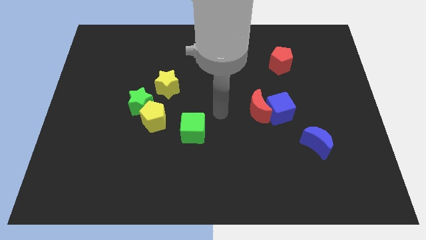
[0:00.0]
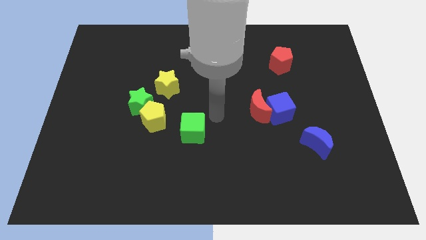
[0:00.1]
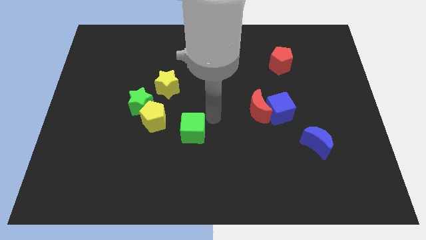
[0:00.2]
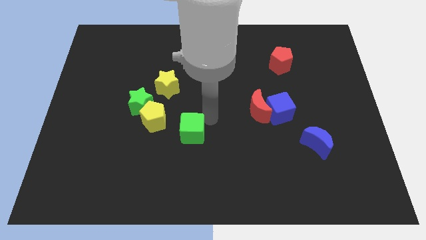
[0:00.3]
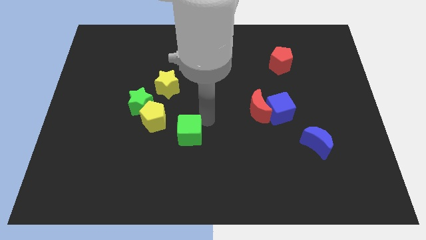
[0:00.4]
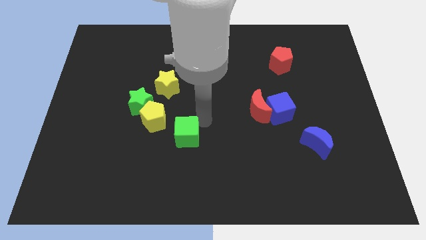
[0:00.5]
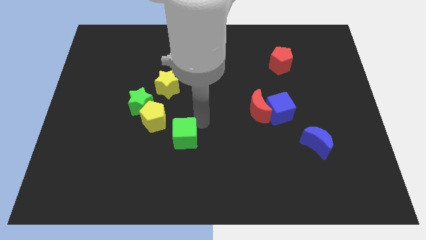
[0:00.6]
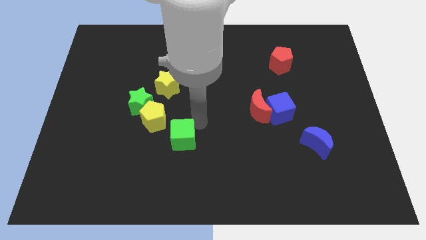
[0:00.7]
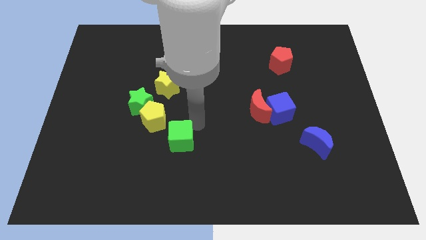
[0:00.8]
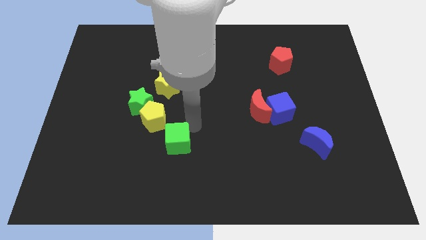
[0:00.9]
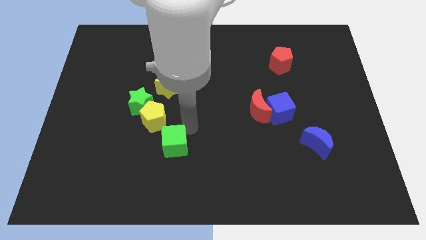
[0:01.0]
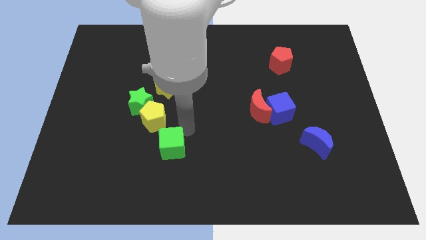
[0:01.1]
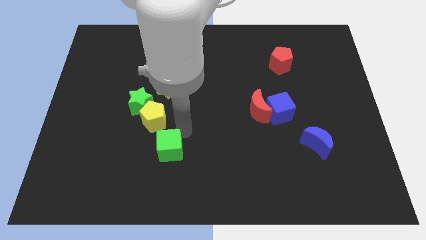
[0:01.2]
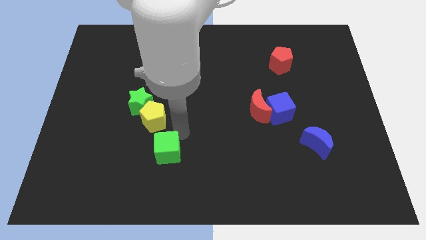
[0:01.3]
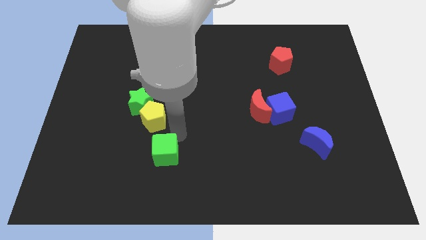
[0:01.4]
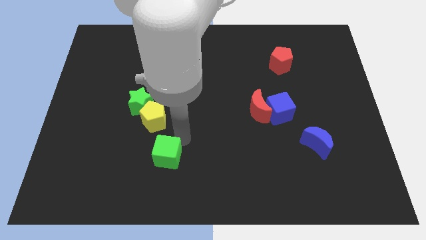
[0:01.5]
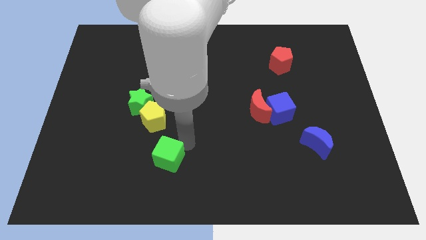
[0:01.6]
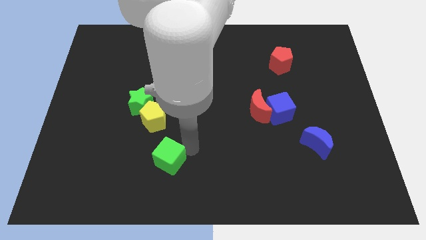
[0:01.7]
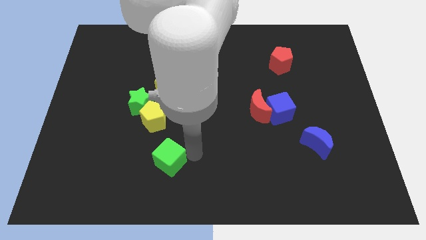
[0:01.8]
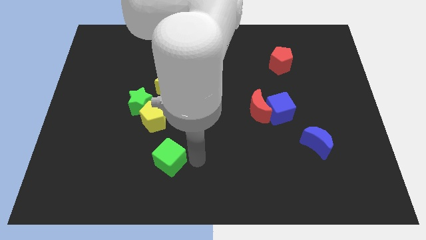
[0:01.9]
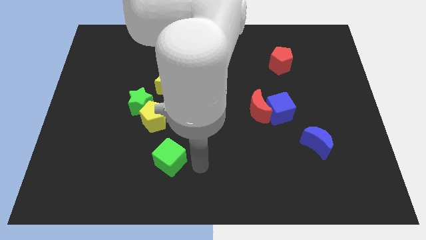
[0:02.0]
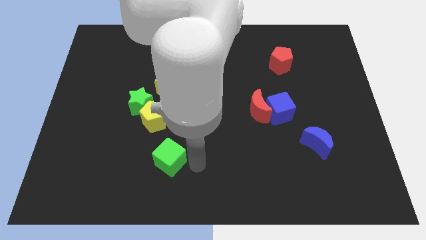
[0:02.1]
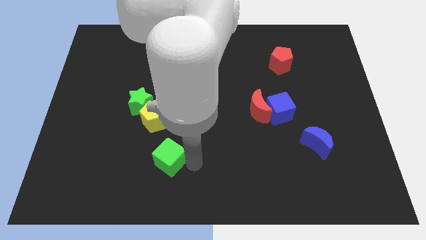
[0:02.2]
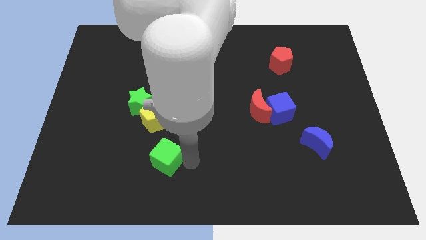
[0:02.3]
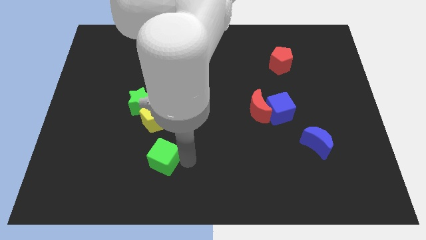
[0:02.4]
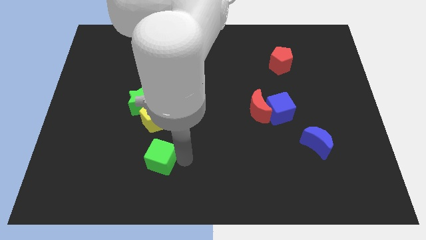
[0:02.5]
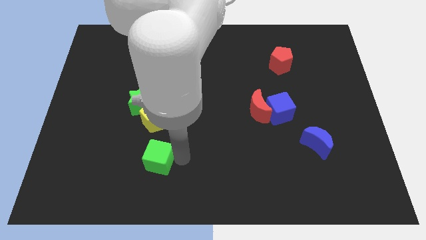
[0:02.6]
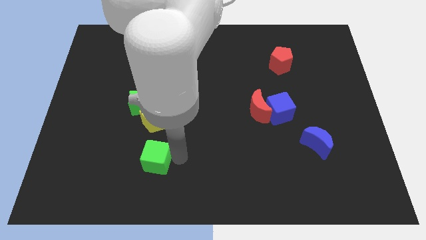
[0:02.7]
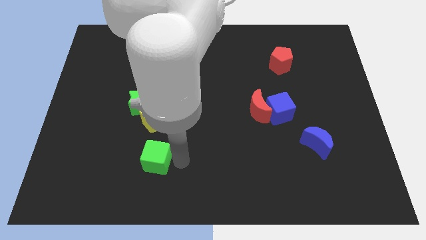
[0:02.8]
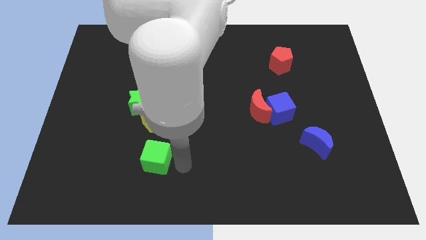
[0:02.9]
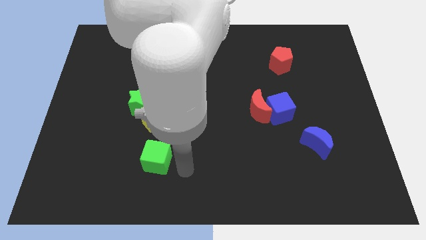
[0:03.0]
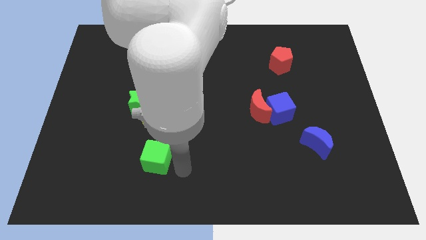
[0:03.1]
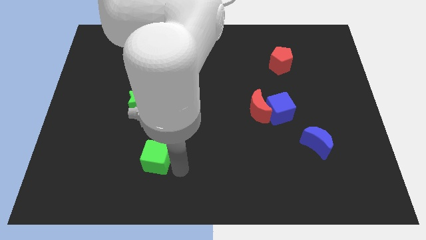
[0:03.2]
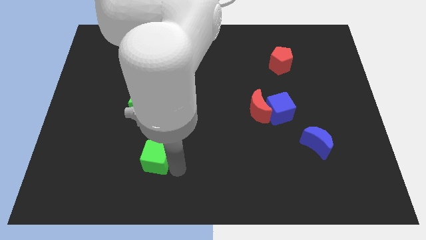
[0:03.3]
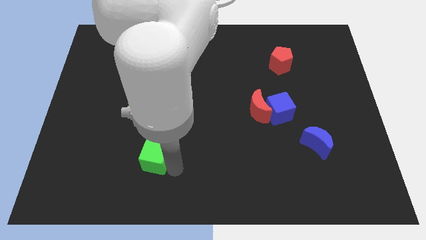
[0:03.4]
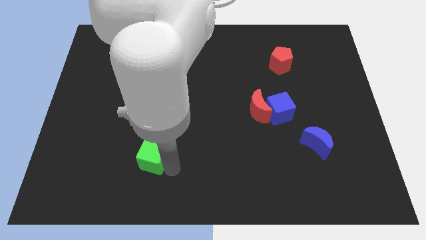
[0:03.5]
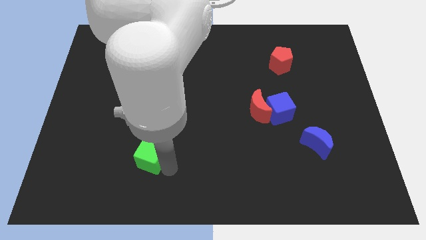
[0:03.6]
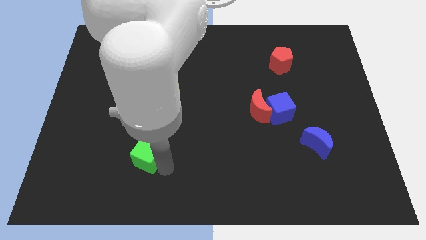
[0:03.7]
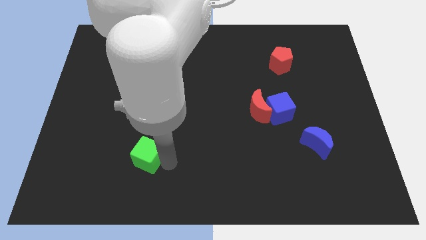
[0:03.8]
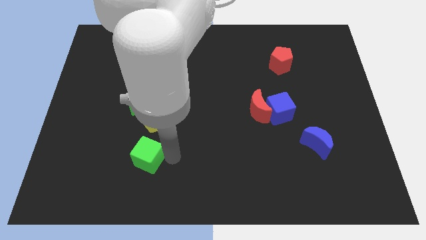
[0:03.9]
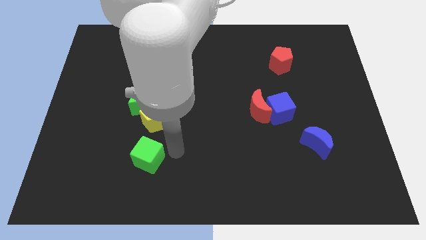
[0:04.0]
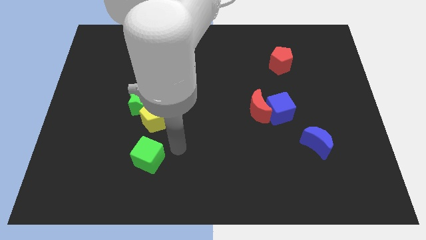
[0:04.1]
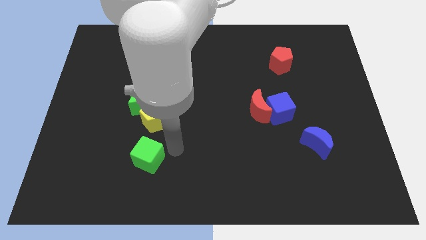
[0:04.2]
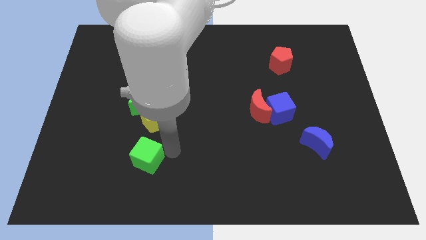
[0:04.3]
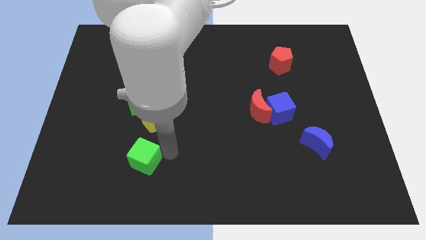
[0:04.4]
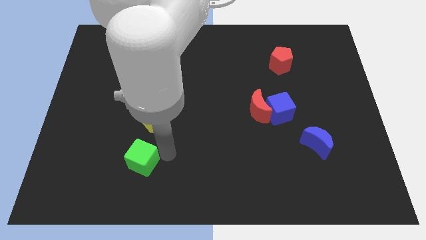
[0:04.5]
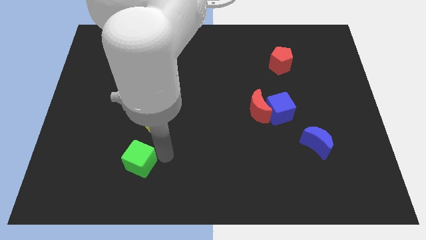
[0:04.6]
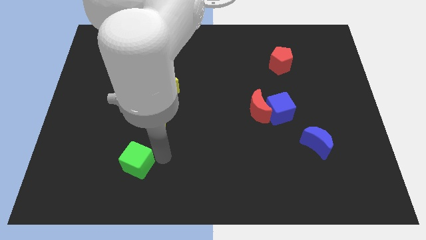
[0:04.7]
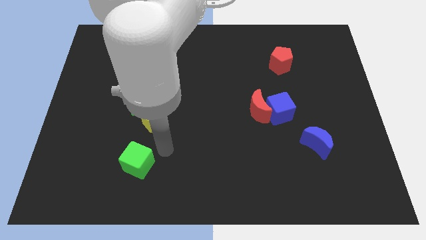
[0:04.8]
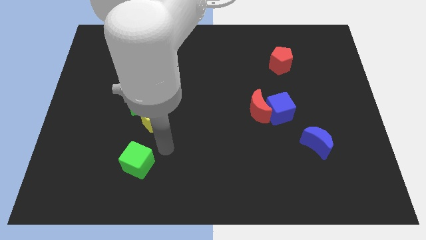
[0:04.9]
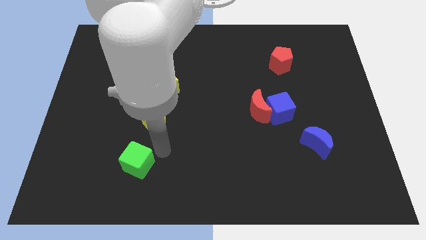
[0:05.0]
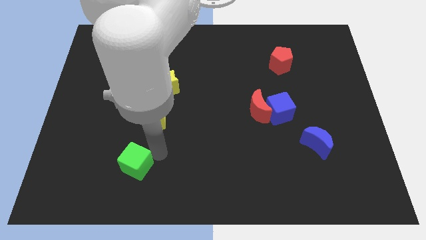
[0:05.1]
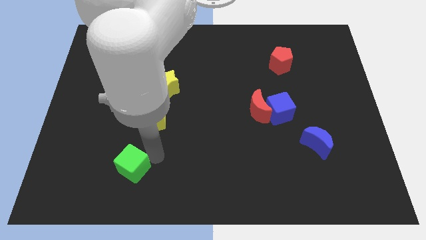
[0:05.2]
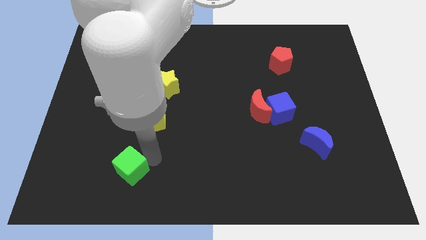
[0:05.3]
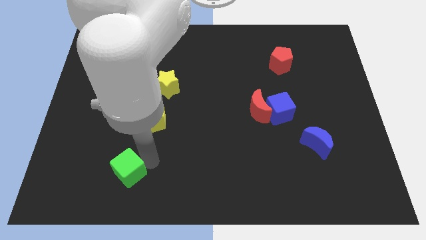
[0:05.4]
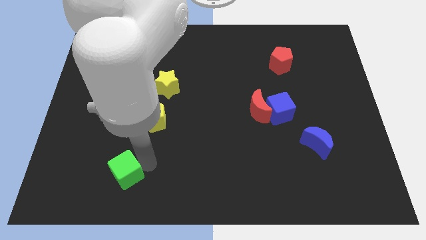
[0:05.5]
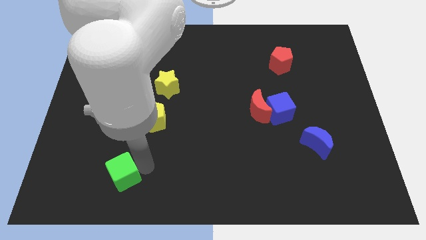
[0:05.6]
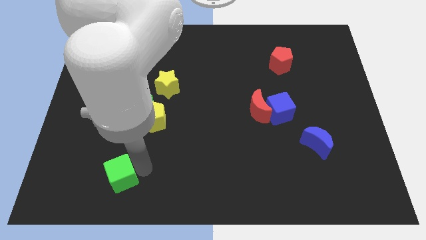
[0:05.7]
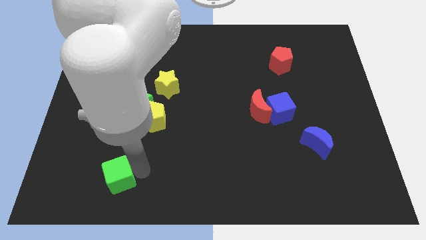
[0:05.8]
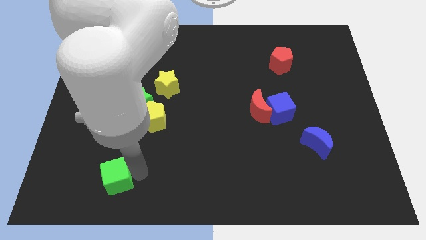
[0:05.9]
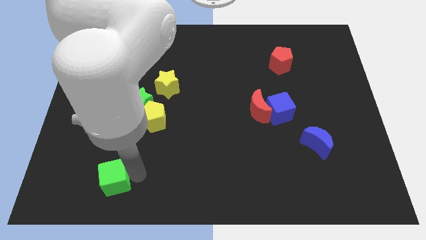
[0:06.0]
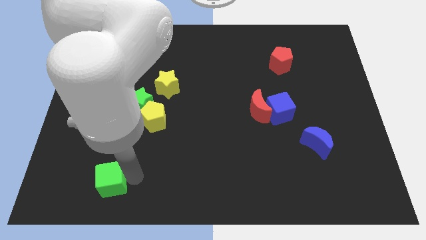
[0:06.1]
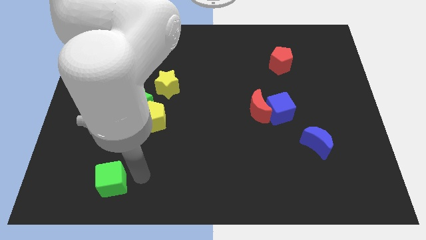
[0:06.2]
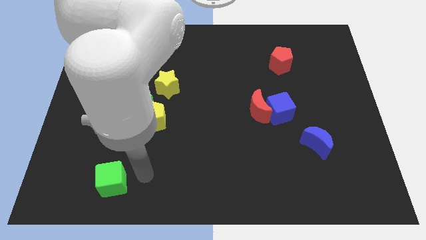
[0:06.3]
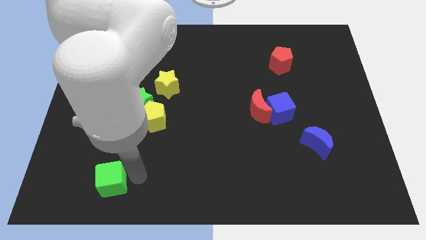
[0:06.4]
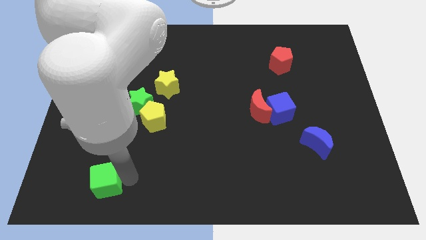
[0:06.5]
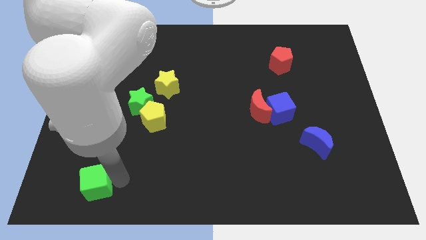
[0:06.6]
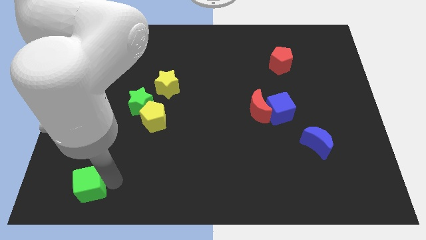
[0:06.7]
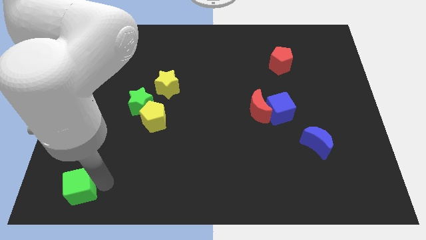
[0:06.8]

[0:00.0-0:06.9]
move the green cube to the bottom left
